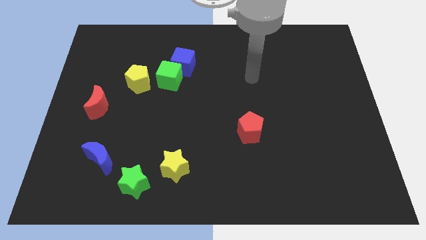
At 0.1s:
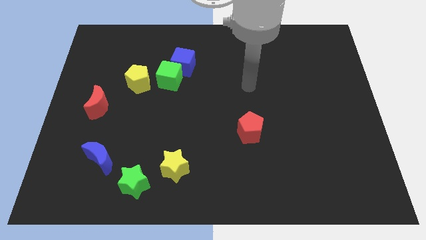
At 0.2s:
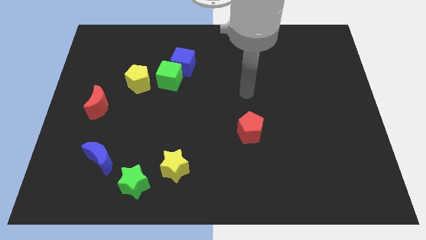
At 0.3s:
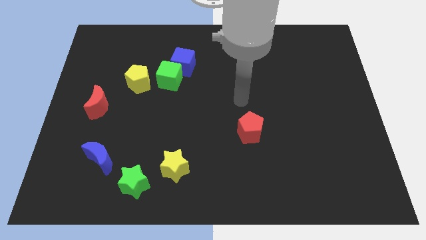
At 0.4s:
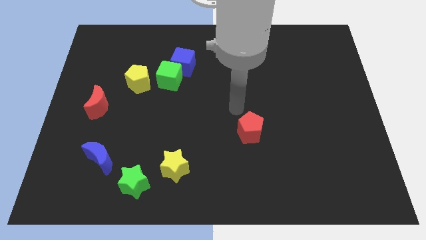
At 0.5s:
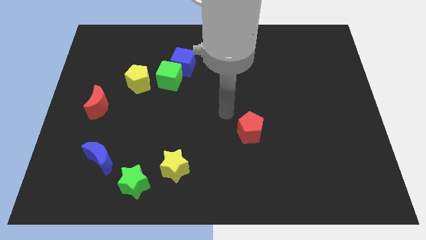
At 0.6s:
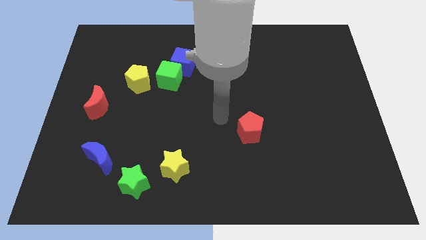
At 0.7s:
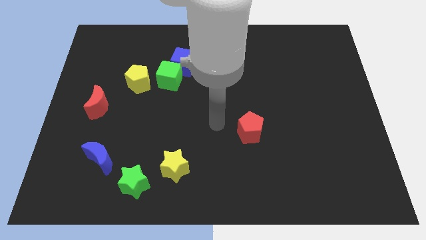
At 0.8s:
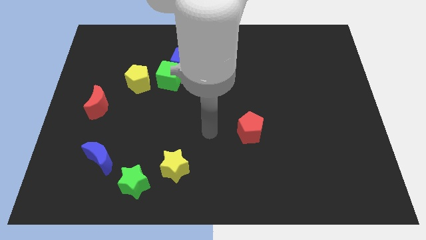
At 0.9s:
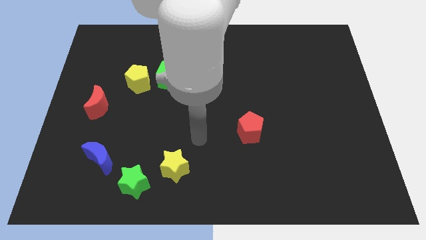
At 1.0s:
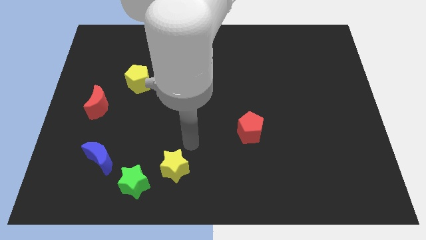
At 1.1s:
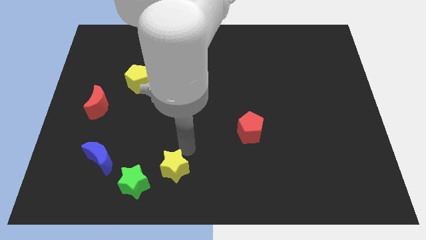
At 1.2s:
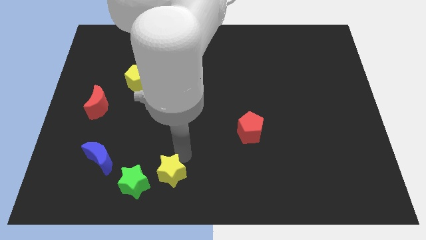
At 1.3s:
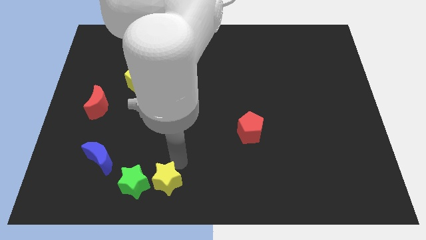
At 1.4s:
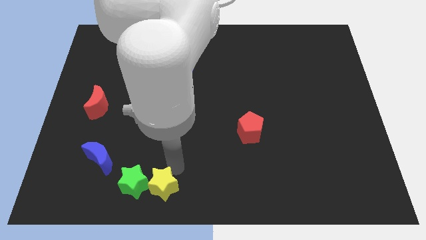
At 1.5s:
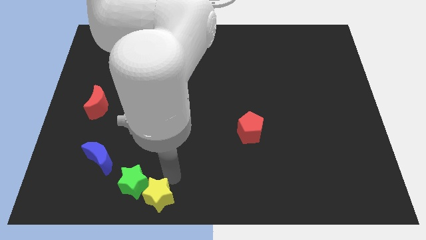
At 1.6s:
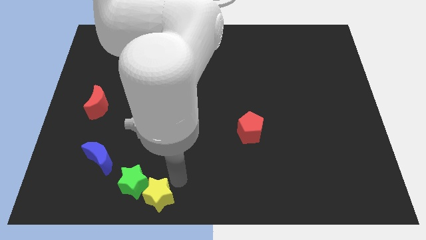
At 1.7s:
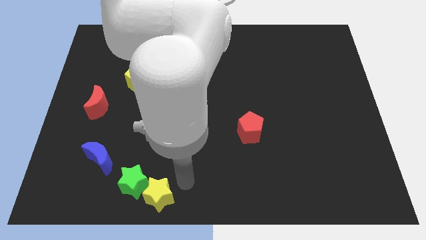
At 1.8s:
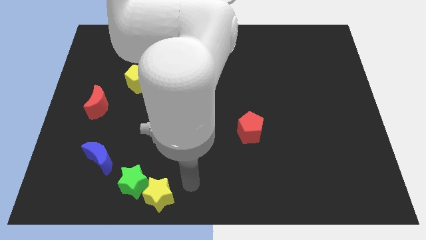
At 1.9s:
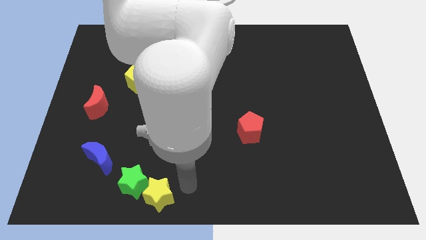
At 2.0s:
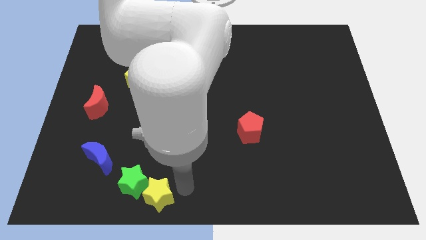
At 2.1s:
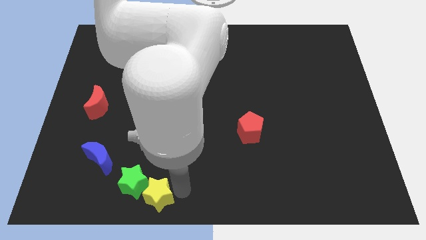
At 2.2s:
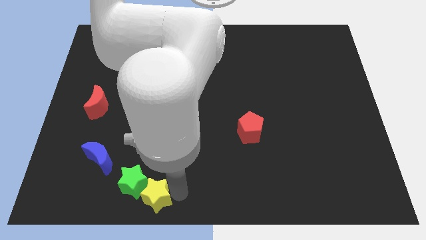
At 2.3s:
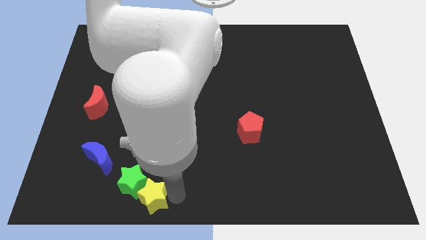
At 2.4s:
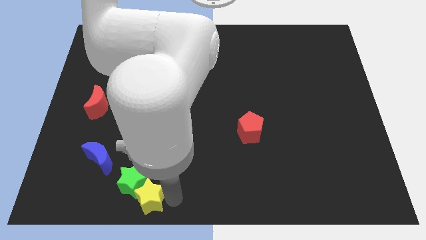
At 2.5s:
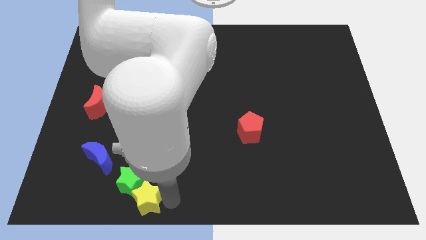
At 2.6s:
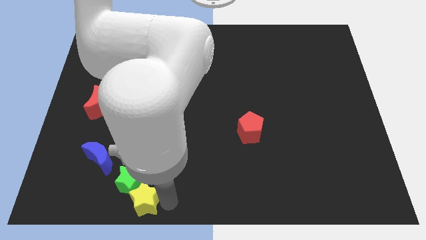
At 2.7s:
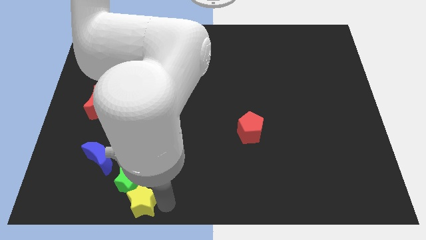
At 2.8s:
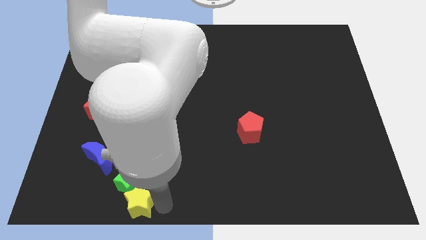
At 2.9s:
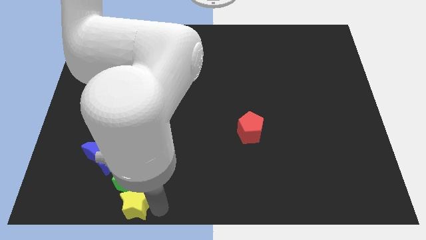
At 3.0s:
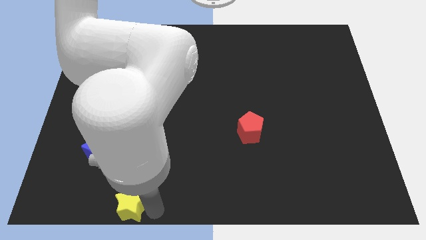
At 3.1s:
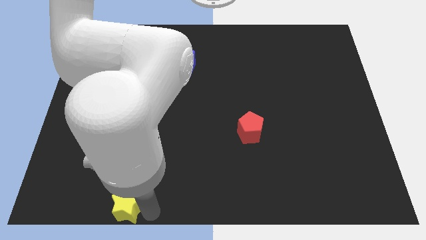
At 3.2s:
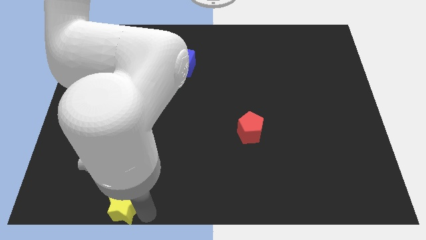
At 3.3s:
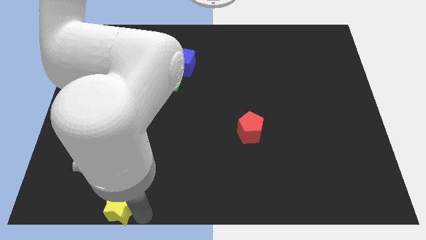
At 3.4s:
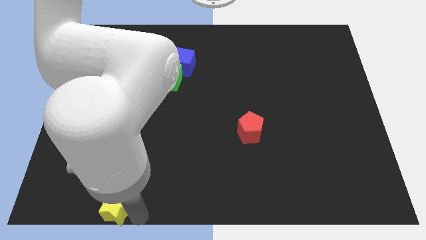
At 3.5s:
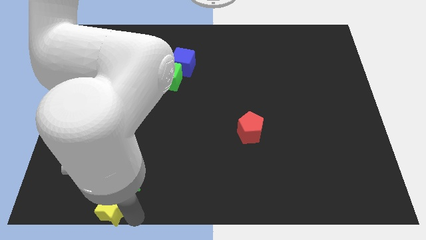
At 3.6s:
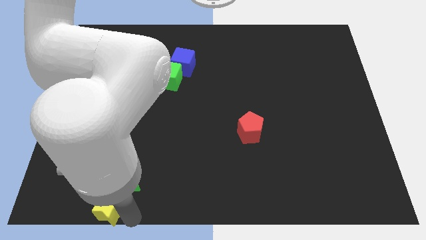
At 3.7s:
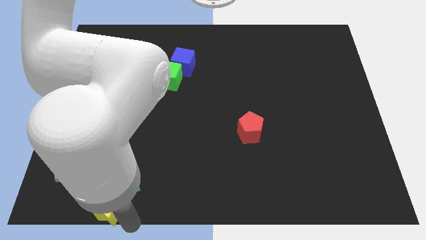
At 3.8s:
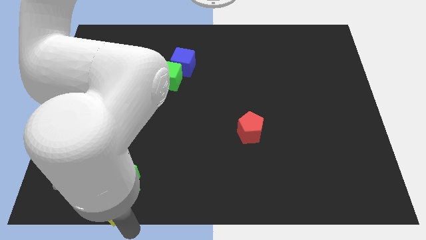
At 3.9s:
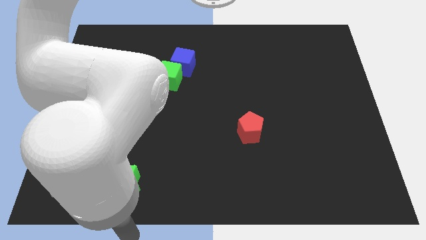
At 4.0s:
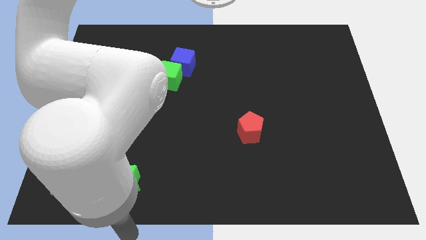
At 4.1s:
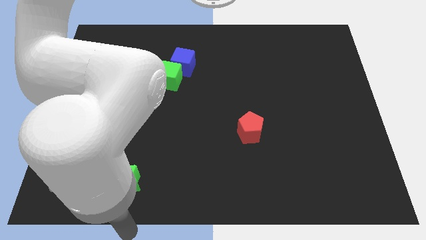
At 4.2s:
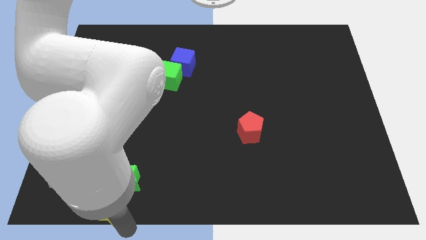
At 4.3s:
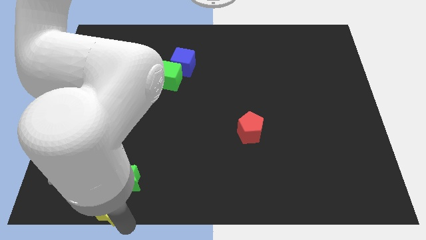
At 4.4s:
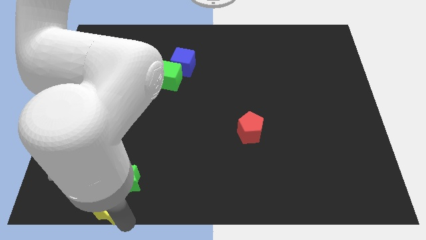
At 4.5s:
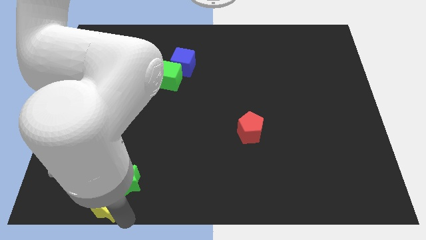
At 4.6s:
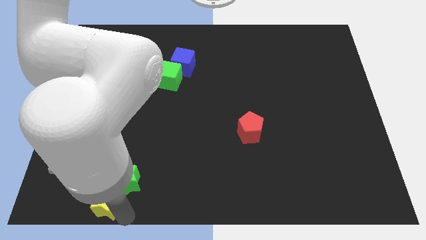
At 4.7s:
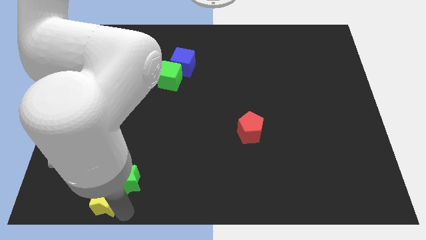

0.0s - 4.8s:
push the yellow star left of the green star

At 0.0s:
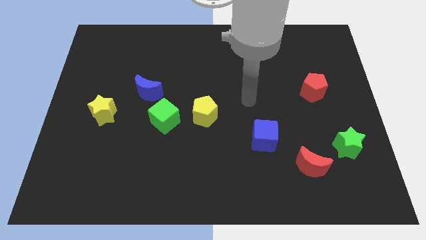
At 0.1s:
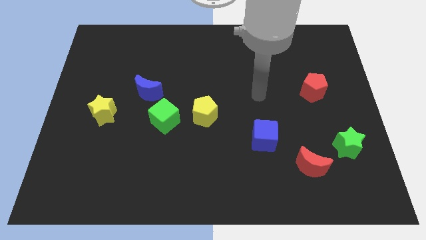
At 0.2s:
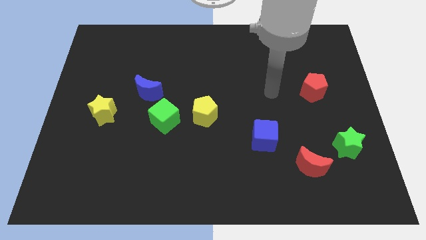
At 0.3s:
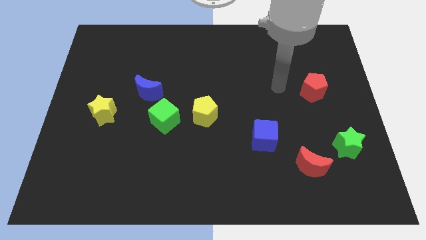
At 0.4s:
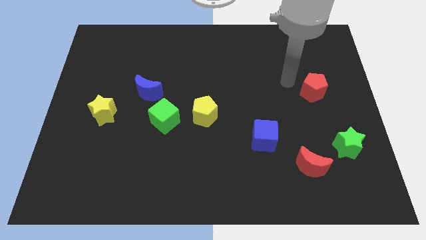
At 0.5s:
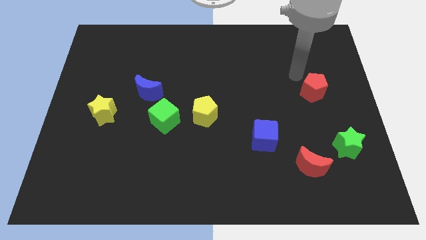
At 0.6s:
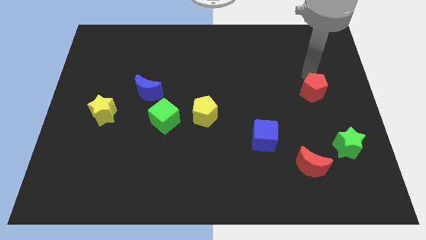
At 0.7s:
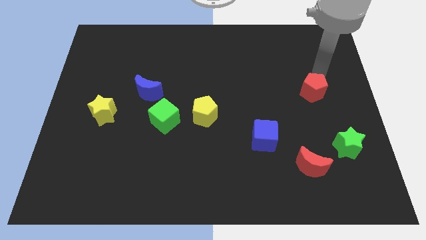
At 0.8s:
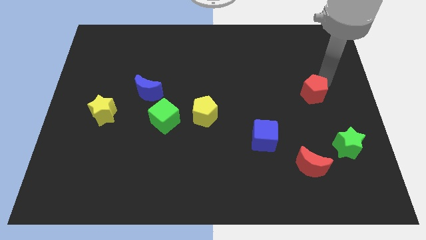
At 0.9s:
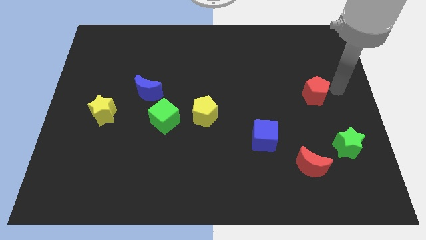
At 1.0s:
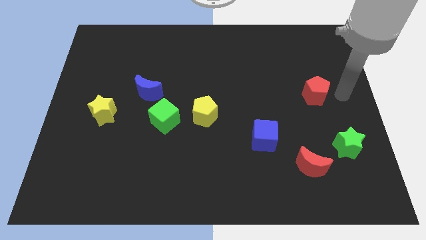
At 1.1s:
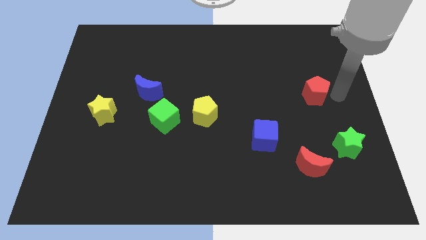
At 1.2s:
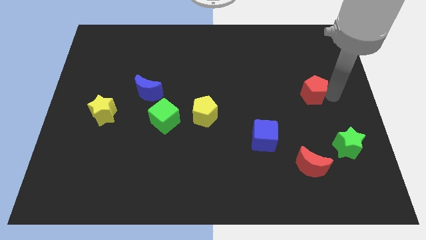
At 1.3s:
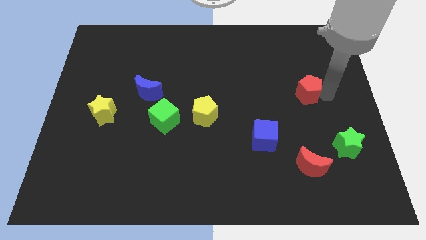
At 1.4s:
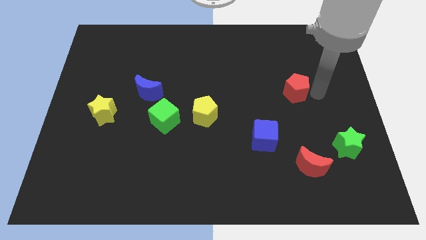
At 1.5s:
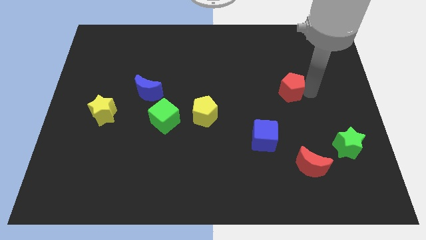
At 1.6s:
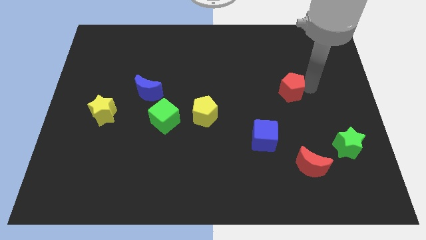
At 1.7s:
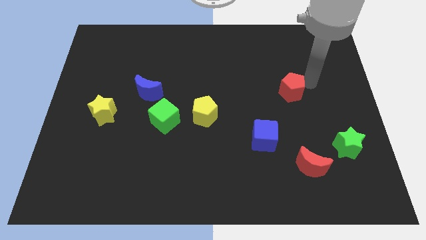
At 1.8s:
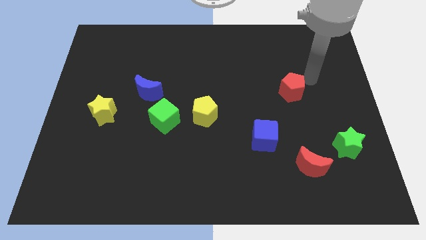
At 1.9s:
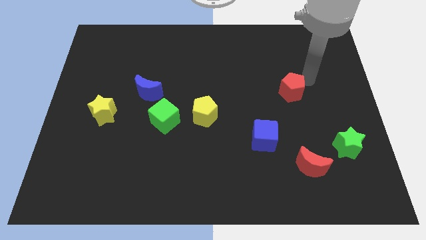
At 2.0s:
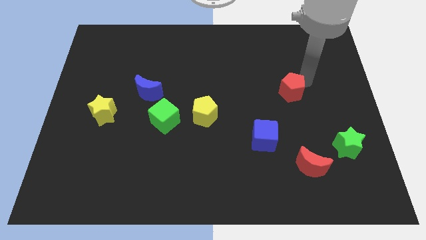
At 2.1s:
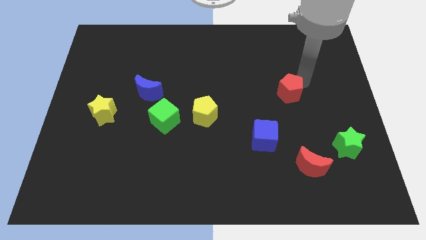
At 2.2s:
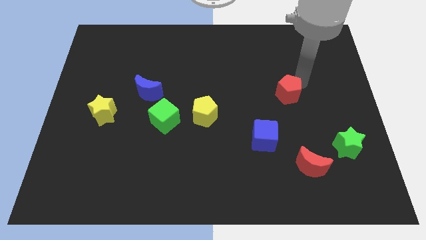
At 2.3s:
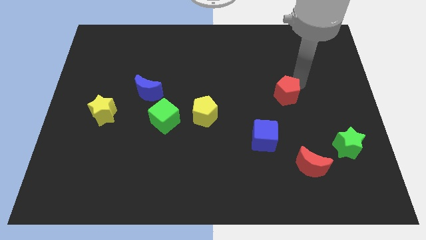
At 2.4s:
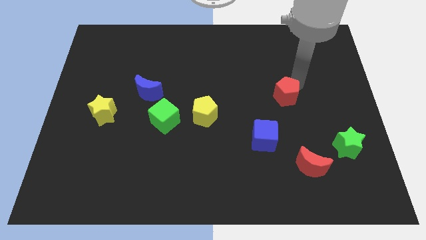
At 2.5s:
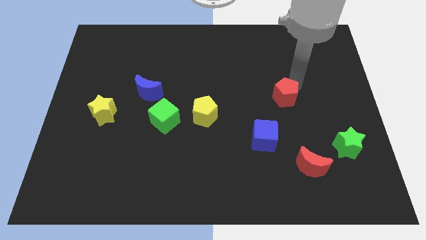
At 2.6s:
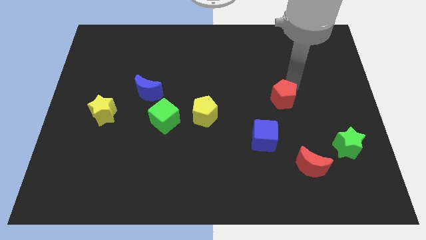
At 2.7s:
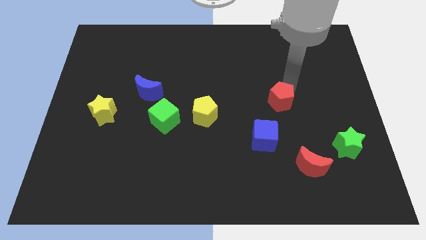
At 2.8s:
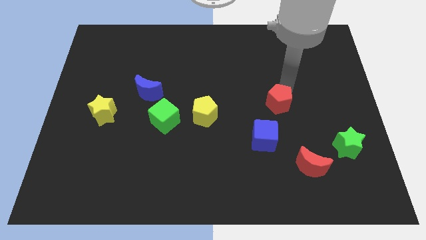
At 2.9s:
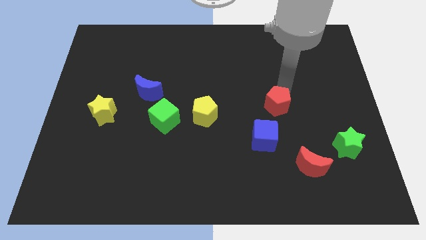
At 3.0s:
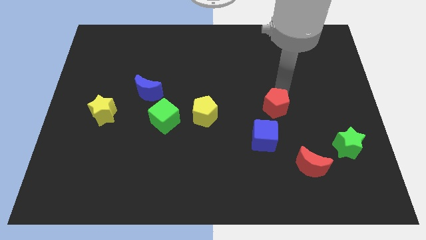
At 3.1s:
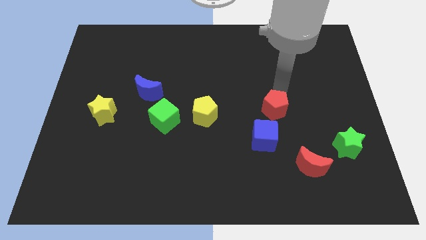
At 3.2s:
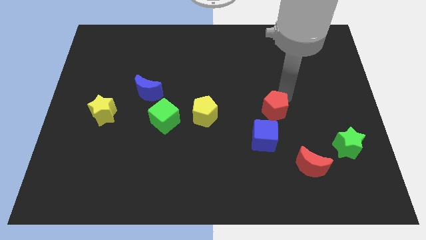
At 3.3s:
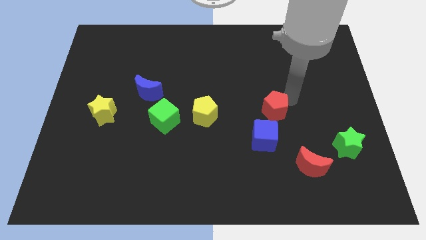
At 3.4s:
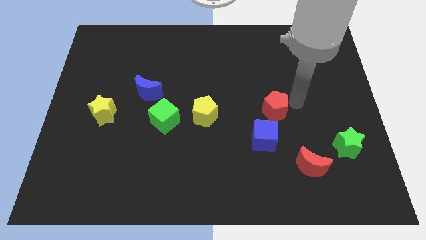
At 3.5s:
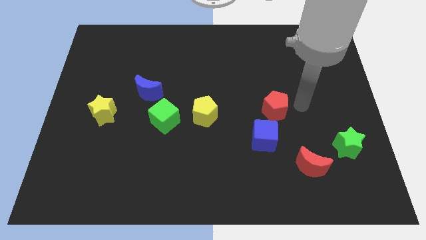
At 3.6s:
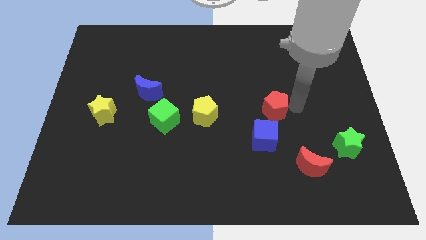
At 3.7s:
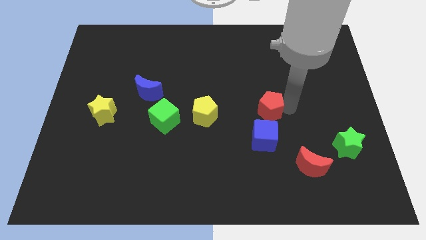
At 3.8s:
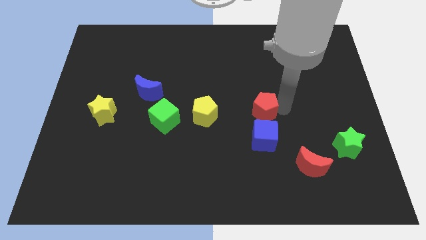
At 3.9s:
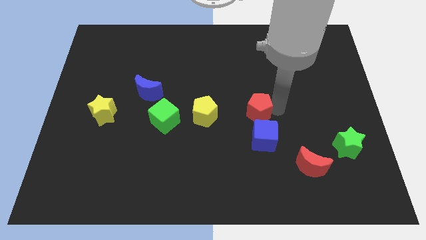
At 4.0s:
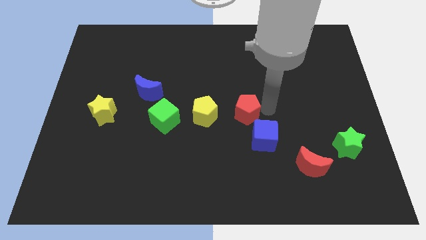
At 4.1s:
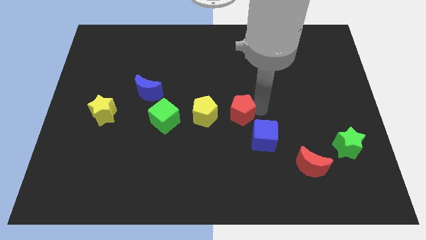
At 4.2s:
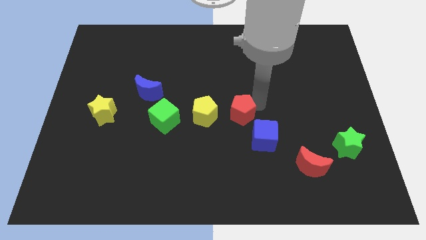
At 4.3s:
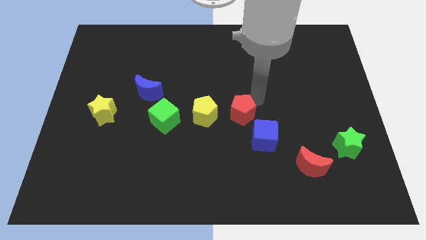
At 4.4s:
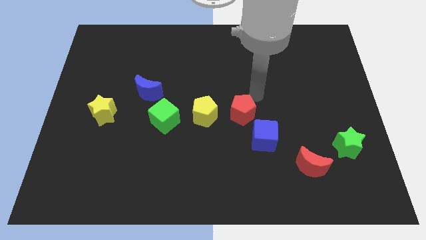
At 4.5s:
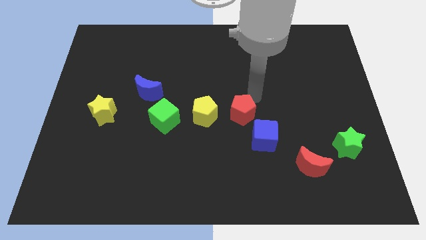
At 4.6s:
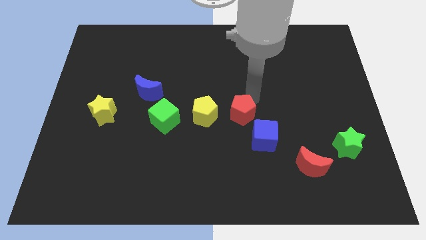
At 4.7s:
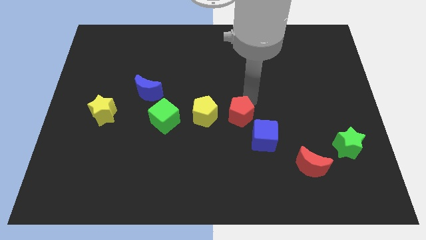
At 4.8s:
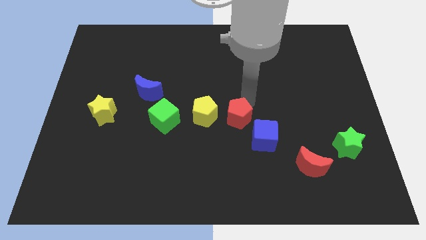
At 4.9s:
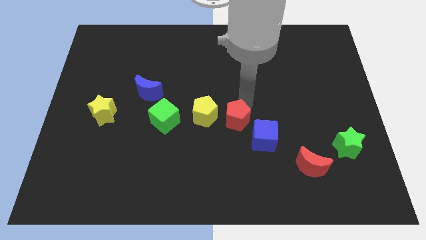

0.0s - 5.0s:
move the red pentagon diagonally down and to the right of the yellow pentagon
